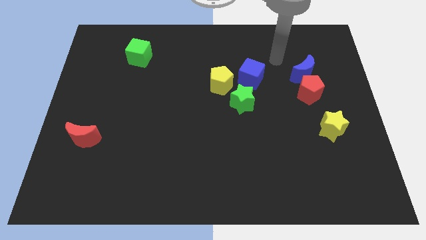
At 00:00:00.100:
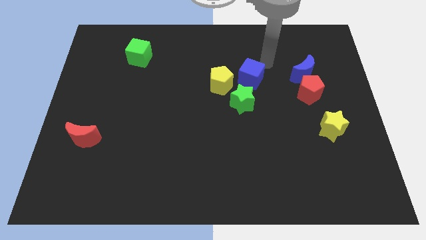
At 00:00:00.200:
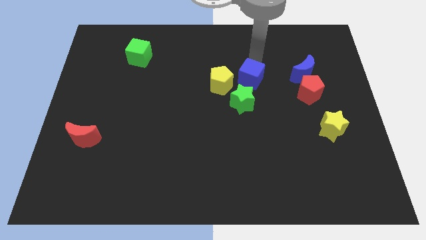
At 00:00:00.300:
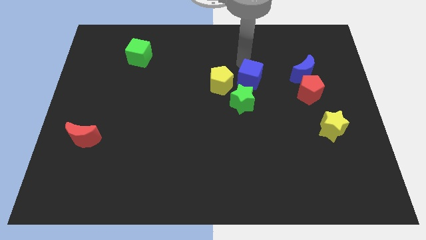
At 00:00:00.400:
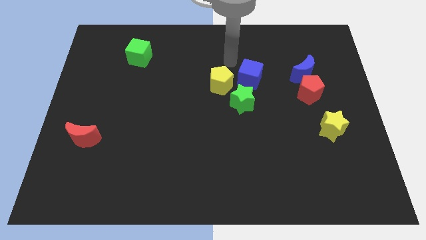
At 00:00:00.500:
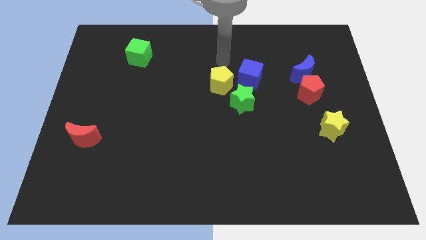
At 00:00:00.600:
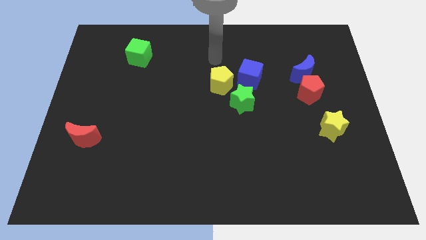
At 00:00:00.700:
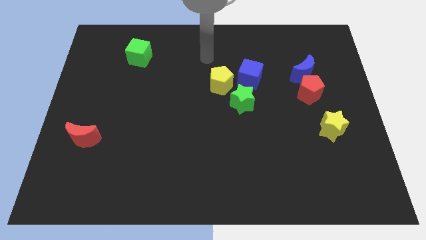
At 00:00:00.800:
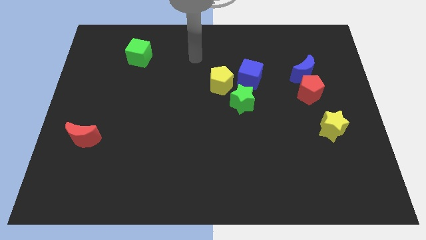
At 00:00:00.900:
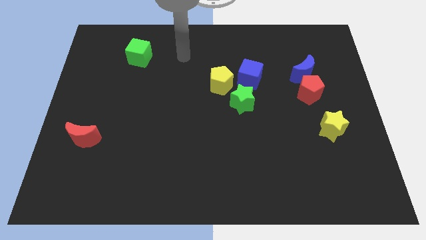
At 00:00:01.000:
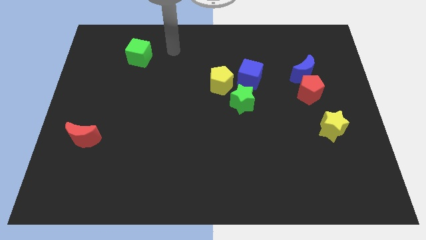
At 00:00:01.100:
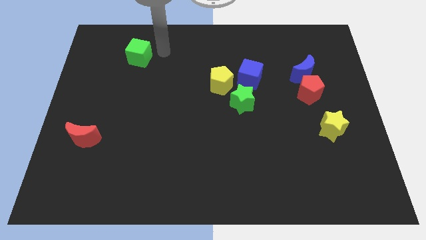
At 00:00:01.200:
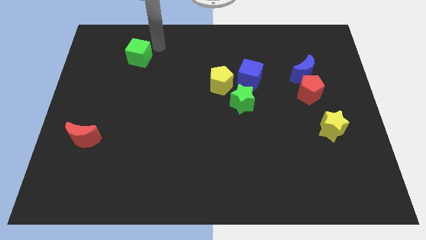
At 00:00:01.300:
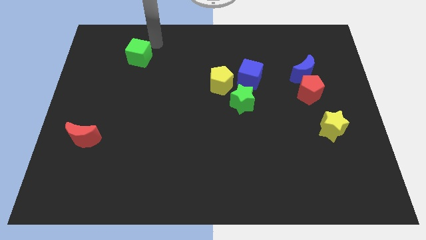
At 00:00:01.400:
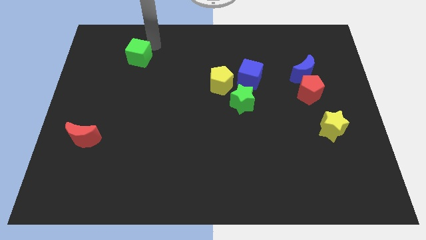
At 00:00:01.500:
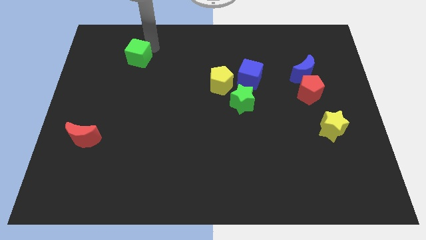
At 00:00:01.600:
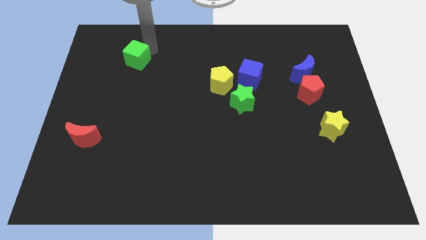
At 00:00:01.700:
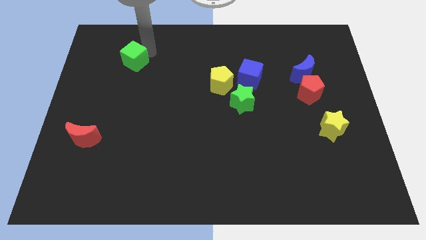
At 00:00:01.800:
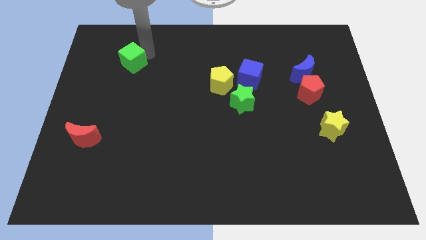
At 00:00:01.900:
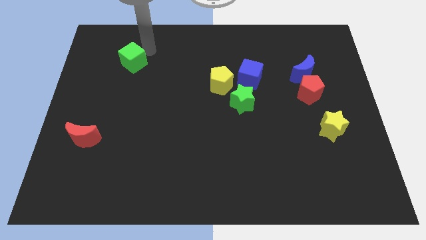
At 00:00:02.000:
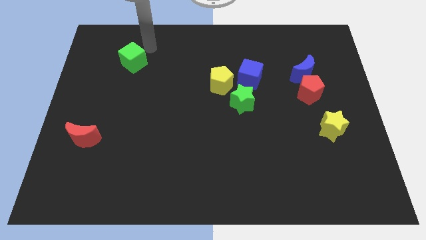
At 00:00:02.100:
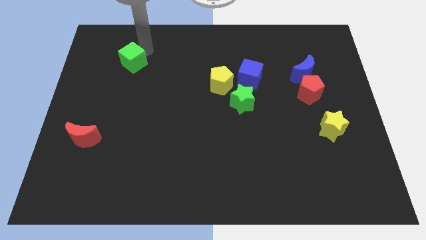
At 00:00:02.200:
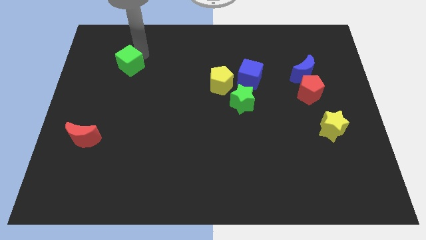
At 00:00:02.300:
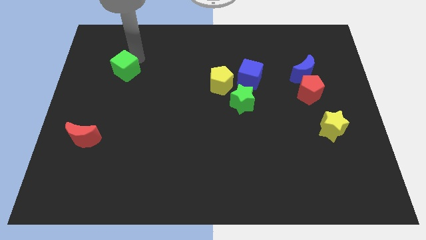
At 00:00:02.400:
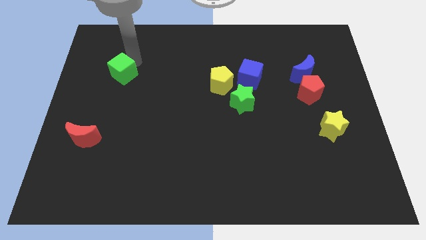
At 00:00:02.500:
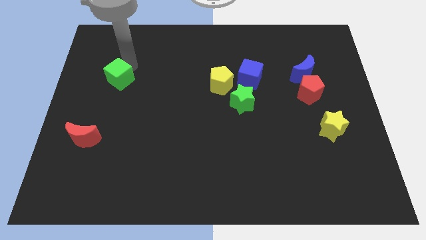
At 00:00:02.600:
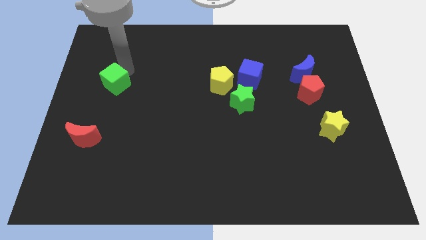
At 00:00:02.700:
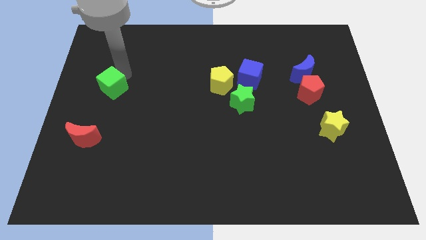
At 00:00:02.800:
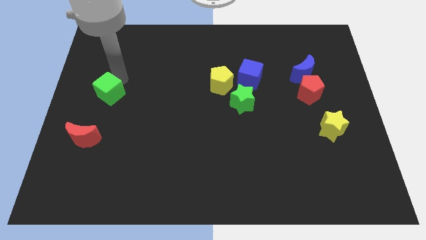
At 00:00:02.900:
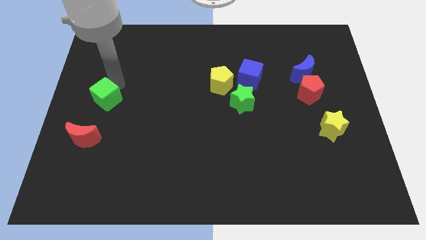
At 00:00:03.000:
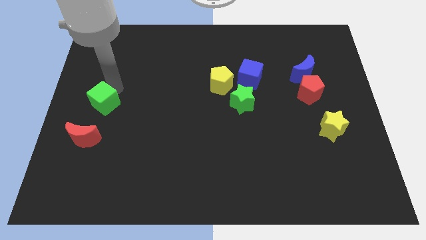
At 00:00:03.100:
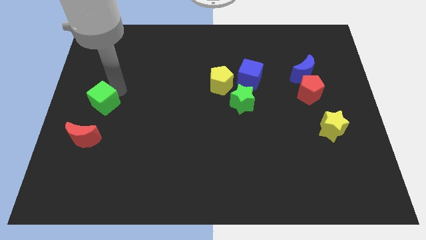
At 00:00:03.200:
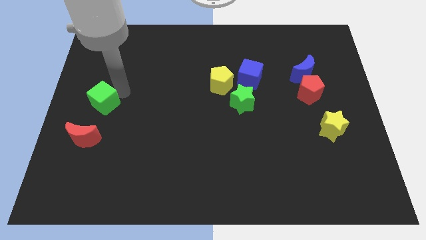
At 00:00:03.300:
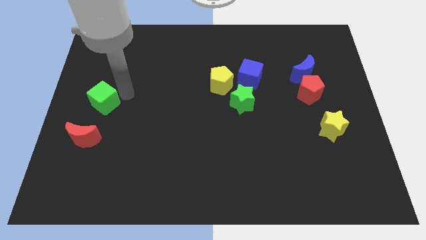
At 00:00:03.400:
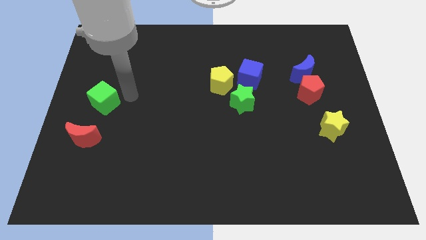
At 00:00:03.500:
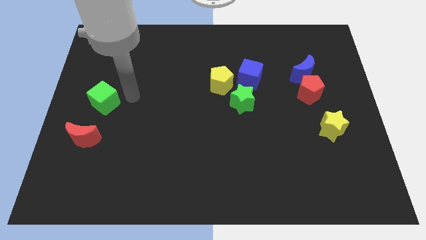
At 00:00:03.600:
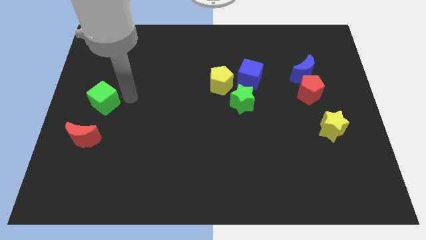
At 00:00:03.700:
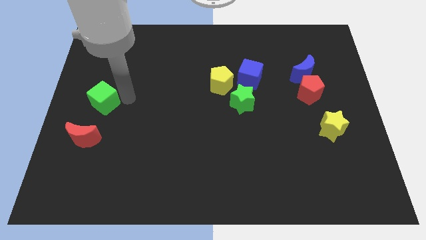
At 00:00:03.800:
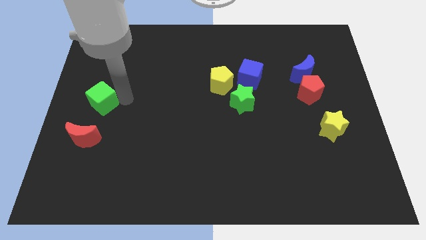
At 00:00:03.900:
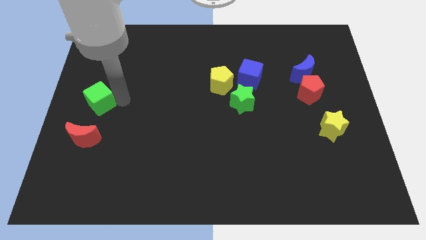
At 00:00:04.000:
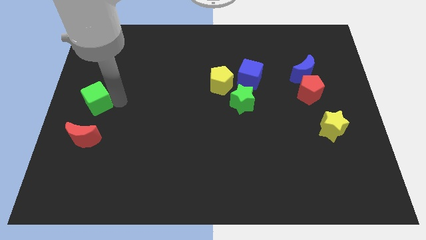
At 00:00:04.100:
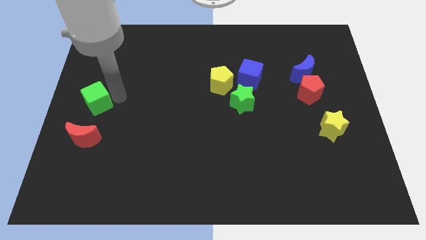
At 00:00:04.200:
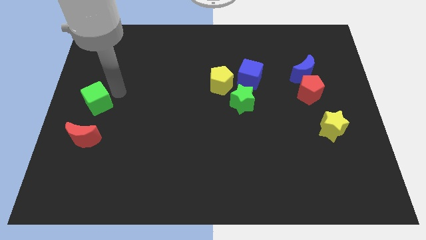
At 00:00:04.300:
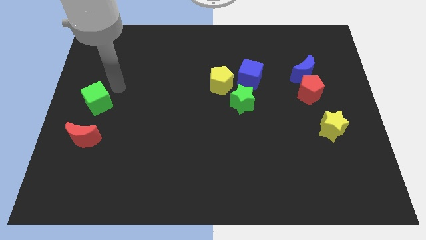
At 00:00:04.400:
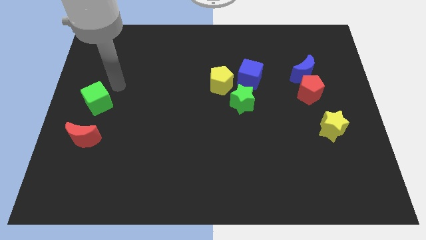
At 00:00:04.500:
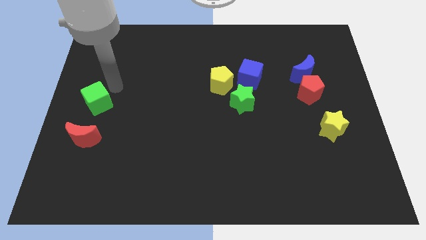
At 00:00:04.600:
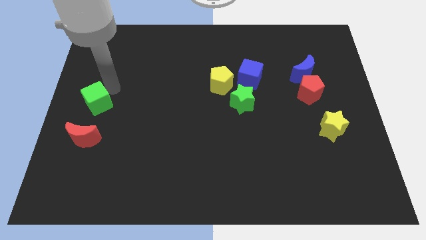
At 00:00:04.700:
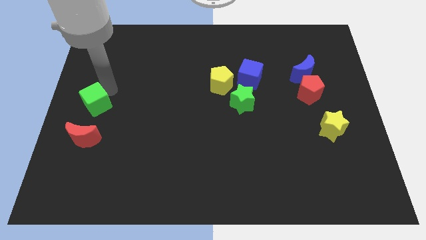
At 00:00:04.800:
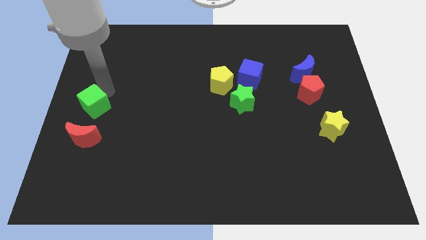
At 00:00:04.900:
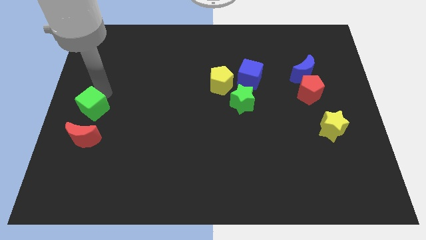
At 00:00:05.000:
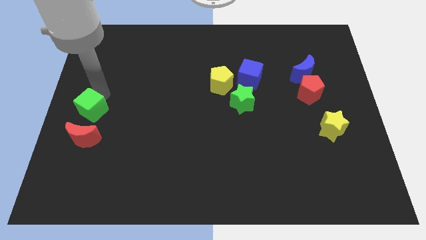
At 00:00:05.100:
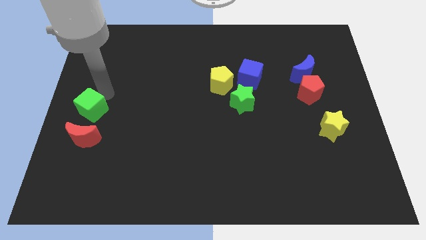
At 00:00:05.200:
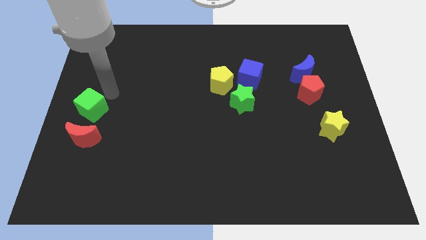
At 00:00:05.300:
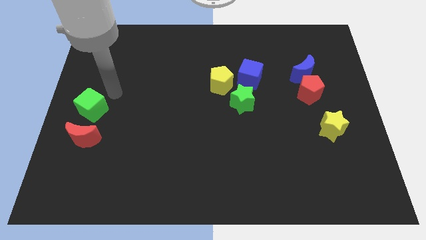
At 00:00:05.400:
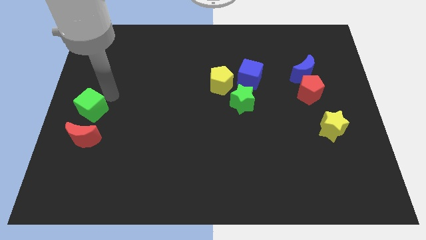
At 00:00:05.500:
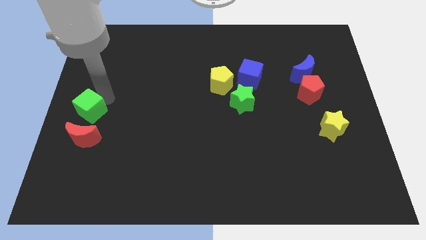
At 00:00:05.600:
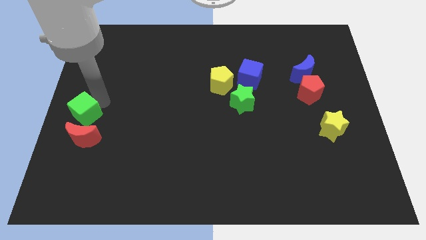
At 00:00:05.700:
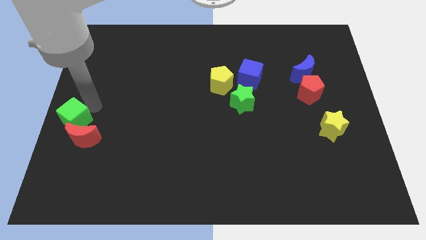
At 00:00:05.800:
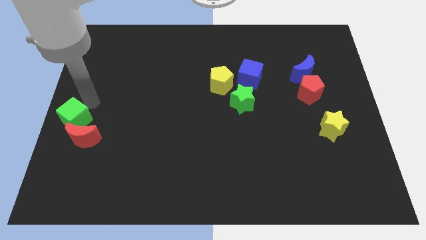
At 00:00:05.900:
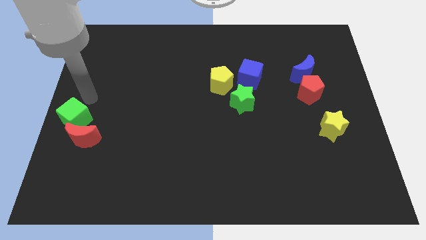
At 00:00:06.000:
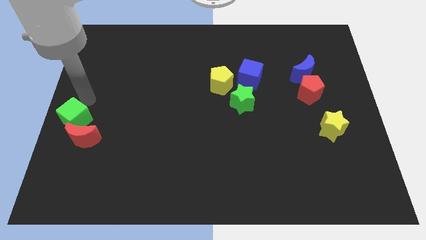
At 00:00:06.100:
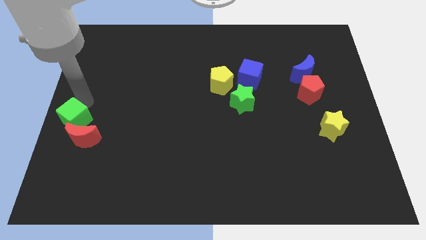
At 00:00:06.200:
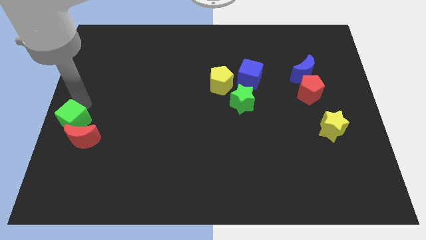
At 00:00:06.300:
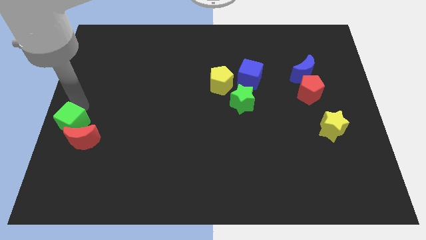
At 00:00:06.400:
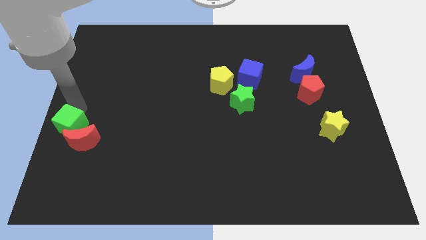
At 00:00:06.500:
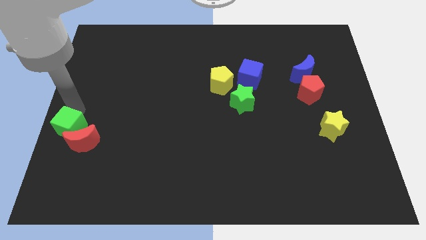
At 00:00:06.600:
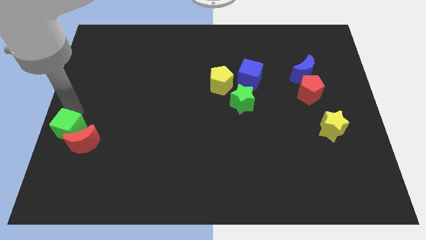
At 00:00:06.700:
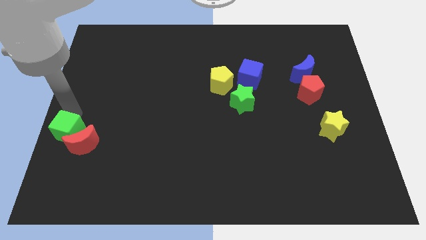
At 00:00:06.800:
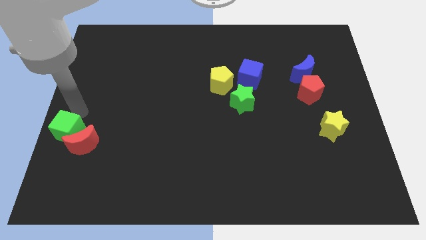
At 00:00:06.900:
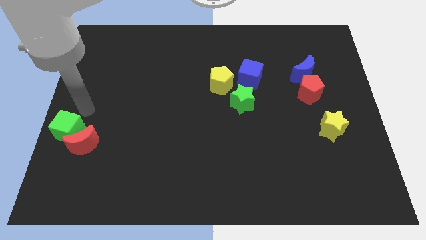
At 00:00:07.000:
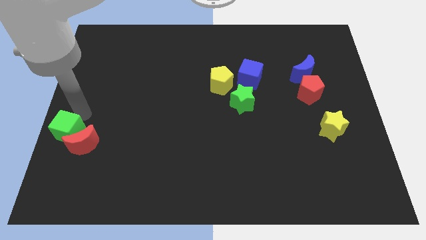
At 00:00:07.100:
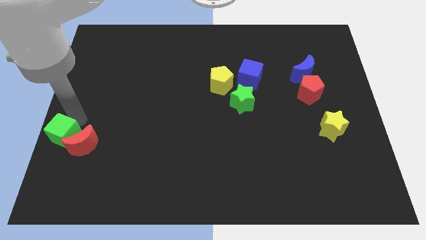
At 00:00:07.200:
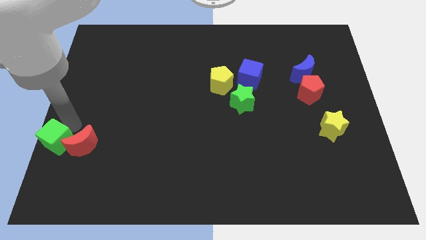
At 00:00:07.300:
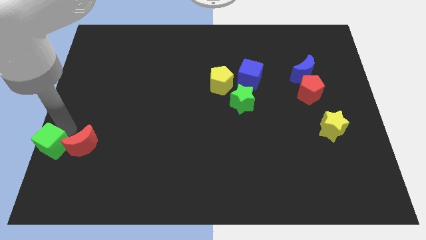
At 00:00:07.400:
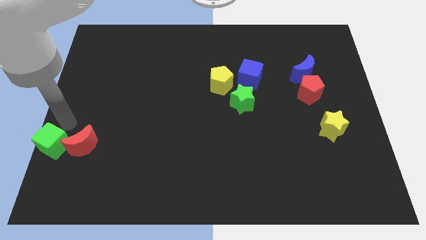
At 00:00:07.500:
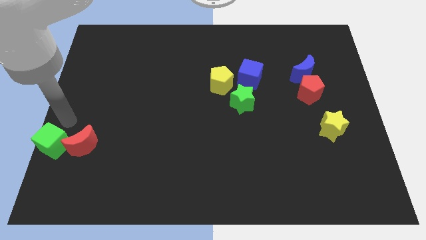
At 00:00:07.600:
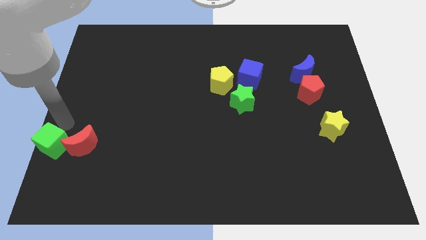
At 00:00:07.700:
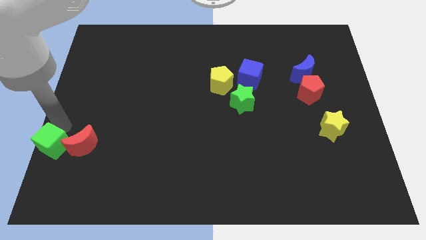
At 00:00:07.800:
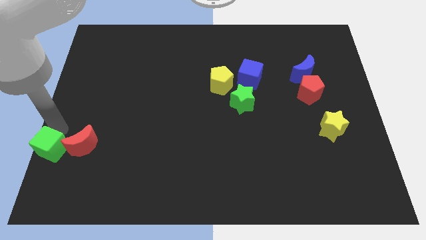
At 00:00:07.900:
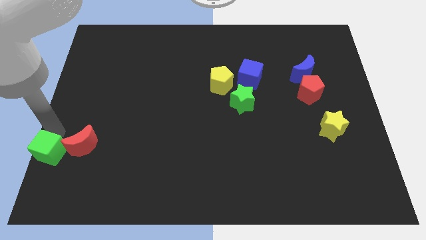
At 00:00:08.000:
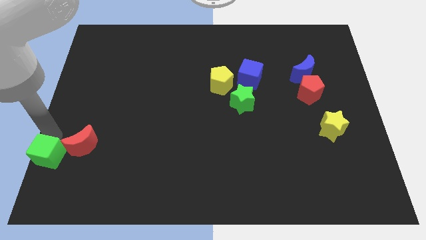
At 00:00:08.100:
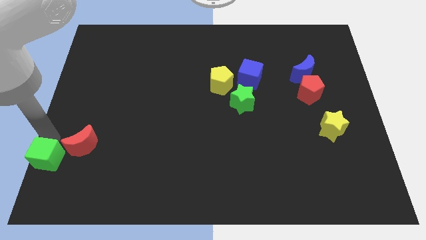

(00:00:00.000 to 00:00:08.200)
push the green cube to the bottom left corner
